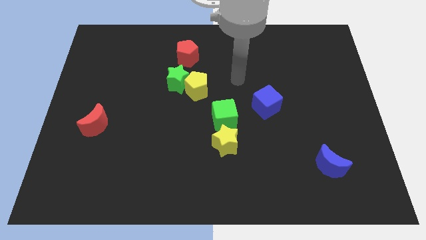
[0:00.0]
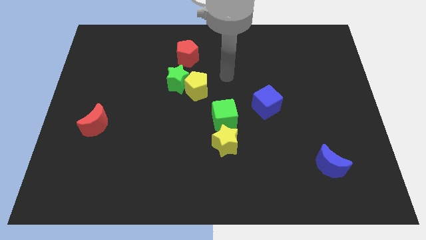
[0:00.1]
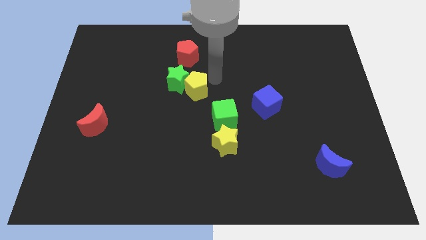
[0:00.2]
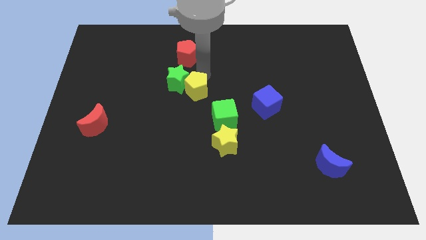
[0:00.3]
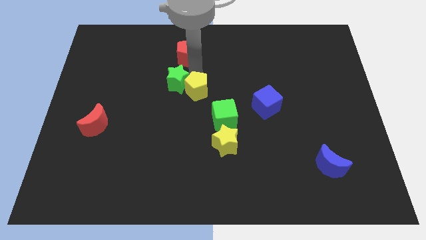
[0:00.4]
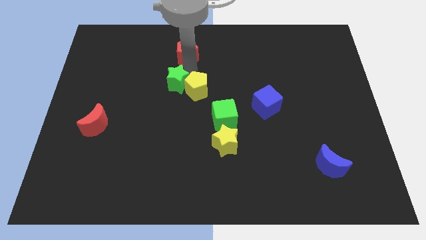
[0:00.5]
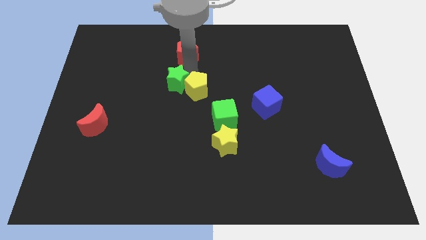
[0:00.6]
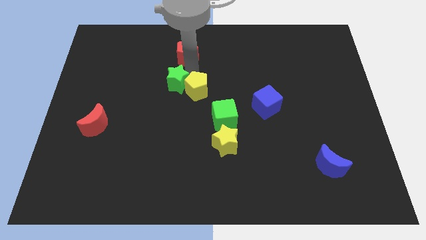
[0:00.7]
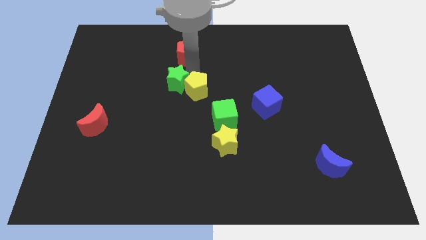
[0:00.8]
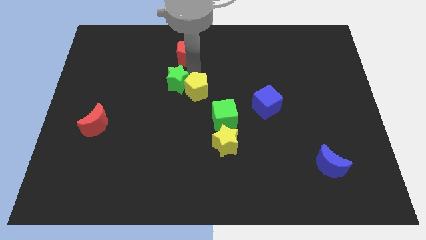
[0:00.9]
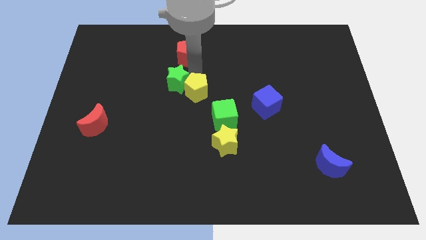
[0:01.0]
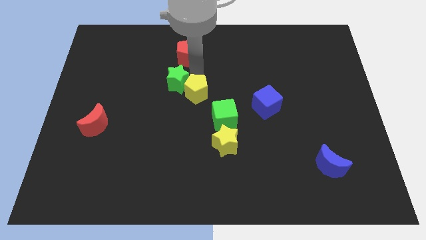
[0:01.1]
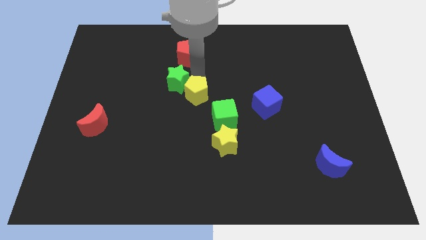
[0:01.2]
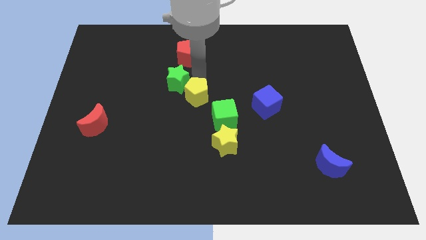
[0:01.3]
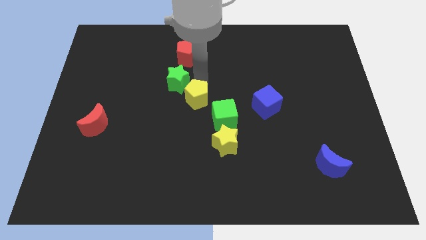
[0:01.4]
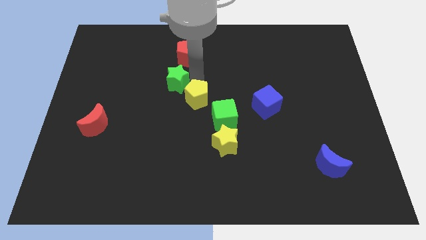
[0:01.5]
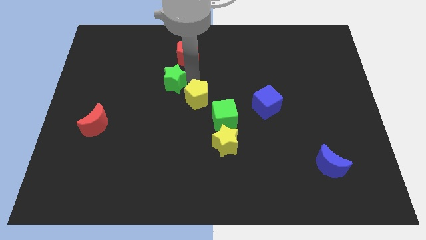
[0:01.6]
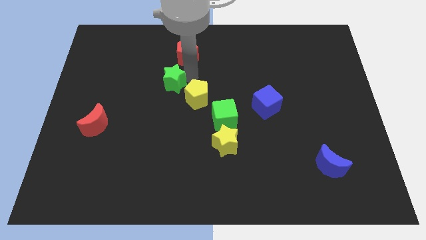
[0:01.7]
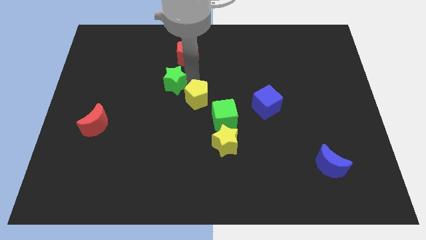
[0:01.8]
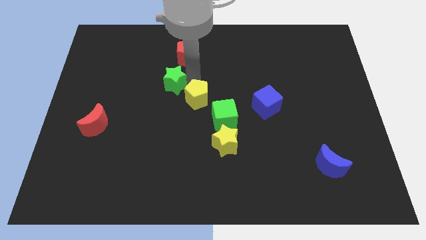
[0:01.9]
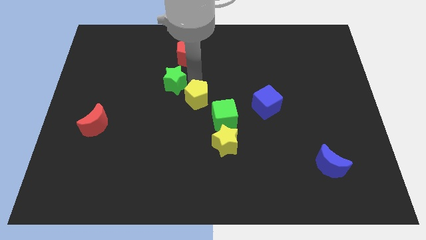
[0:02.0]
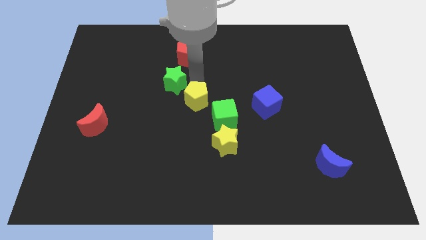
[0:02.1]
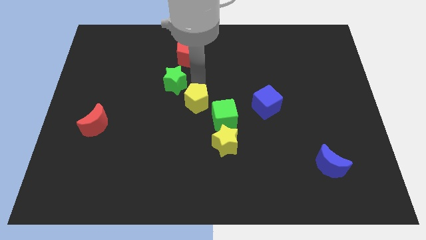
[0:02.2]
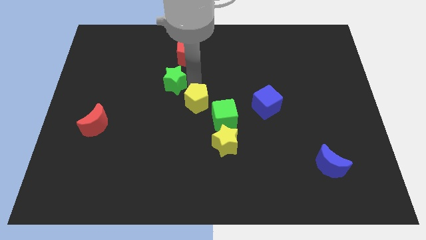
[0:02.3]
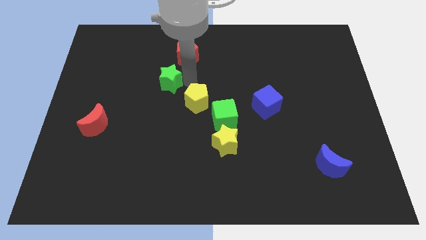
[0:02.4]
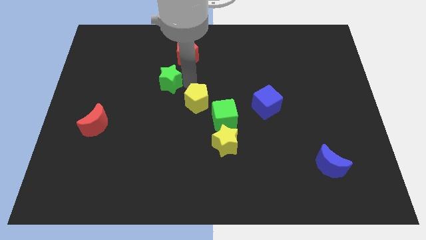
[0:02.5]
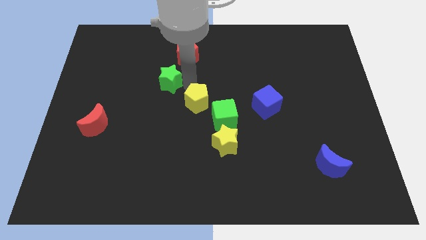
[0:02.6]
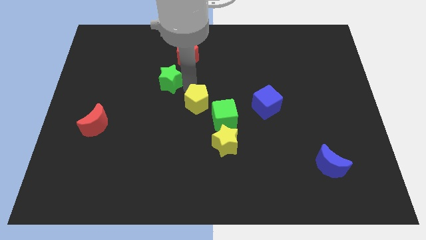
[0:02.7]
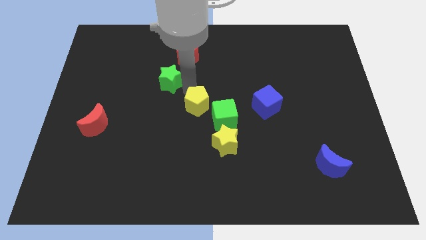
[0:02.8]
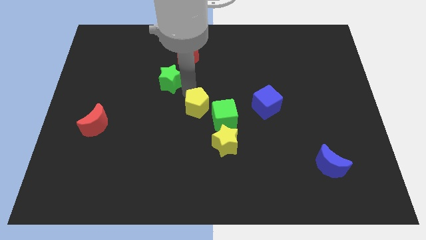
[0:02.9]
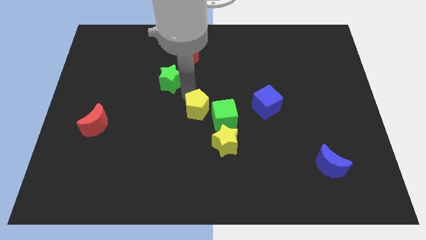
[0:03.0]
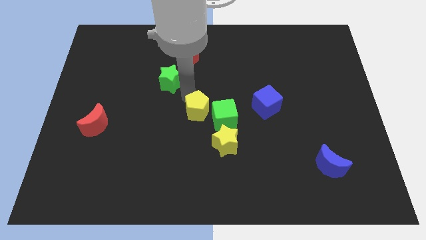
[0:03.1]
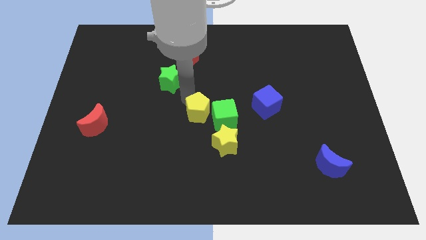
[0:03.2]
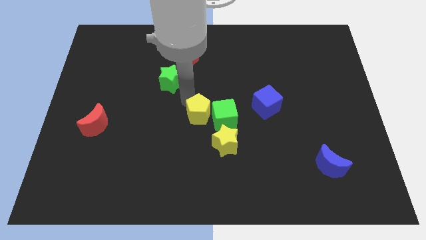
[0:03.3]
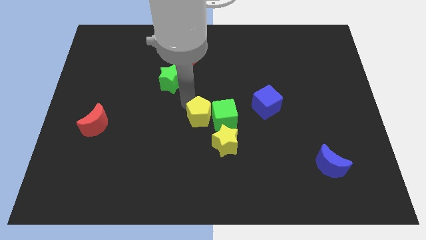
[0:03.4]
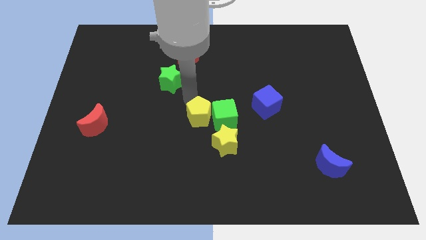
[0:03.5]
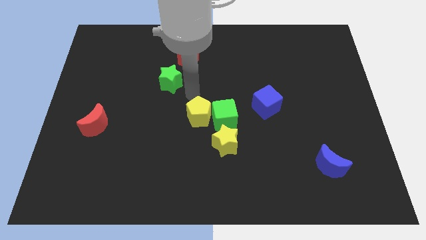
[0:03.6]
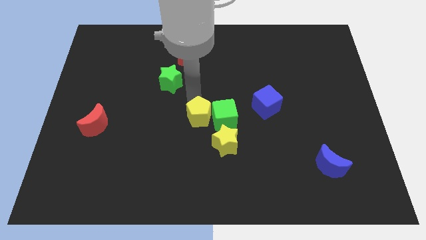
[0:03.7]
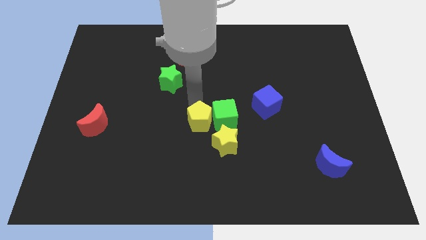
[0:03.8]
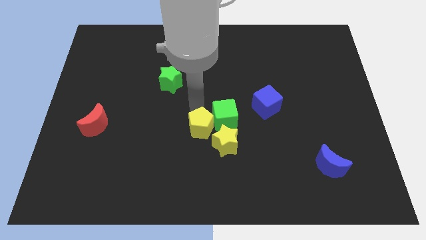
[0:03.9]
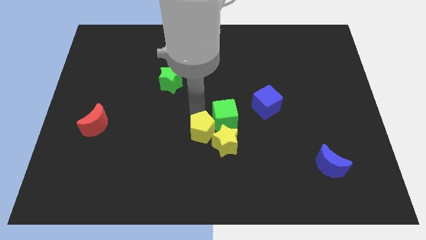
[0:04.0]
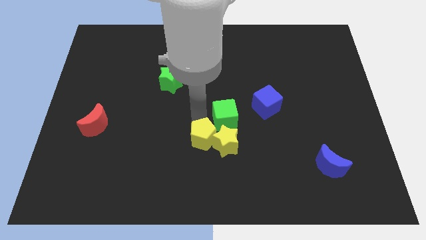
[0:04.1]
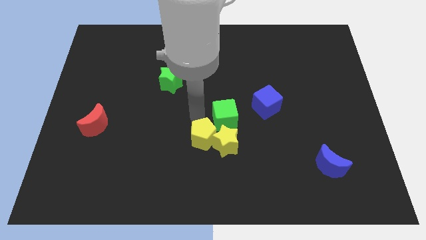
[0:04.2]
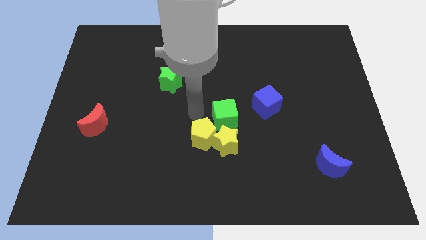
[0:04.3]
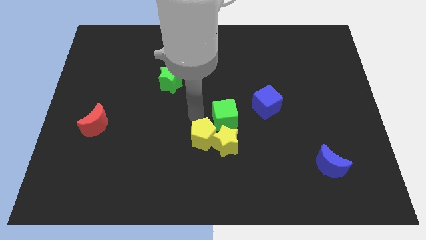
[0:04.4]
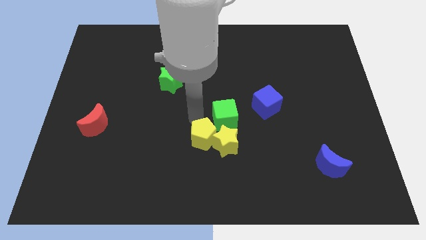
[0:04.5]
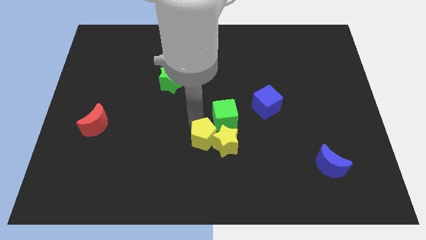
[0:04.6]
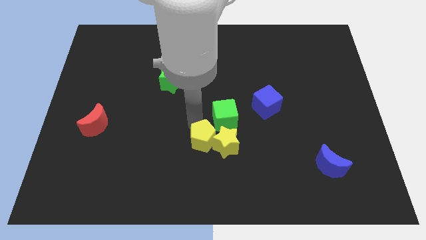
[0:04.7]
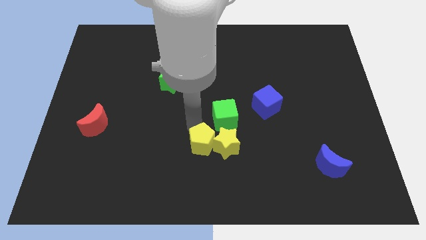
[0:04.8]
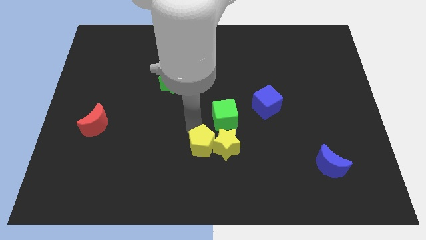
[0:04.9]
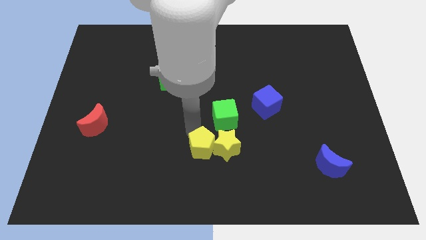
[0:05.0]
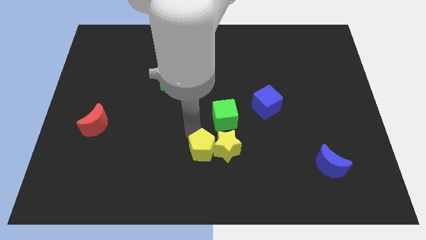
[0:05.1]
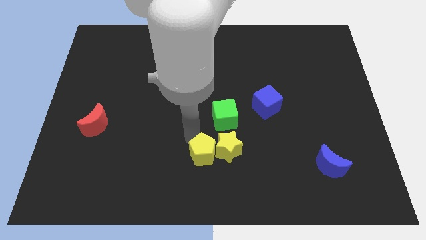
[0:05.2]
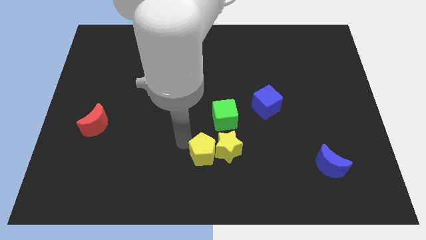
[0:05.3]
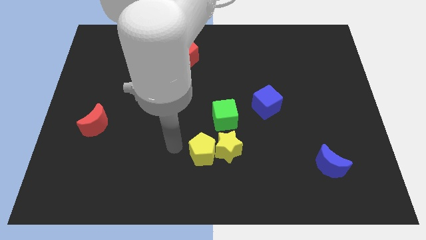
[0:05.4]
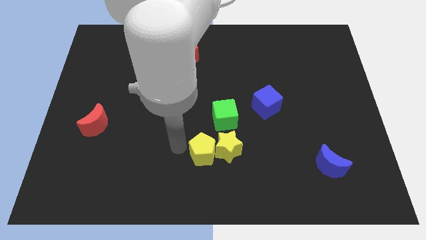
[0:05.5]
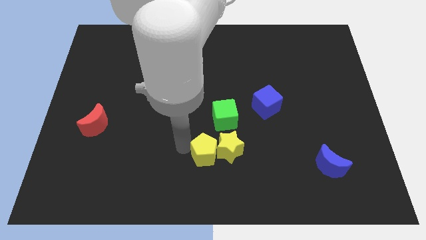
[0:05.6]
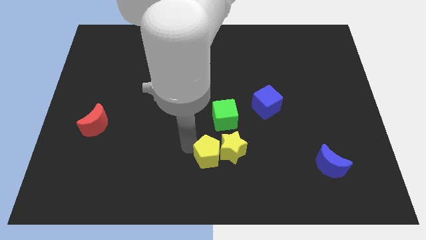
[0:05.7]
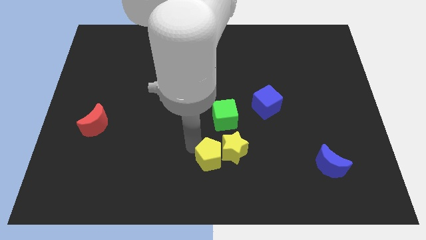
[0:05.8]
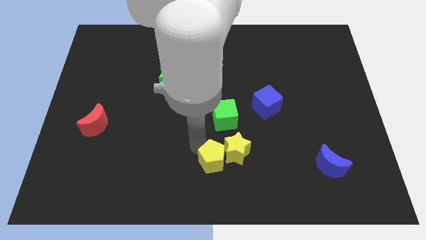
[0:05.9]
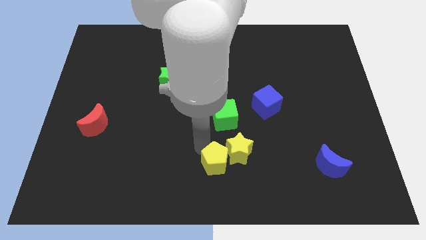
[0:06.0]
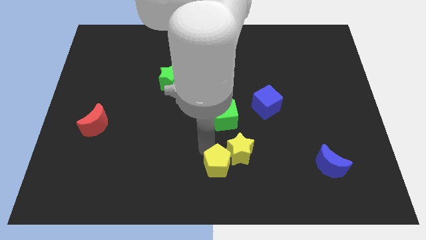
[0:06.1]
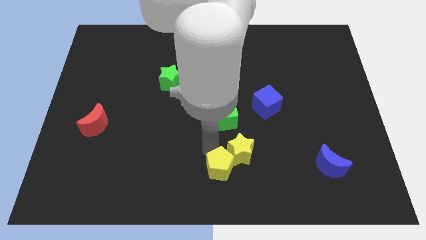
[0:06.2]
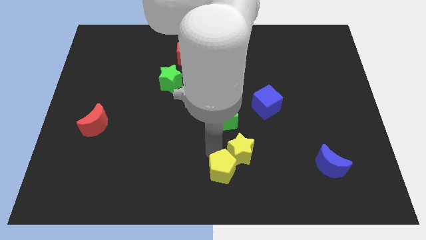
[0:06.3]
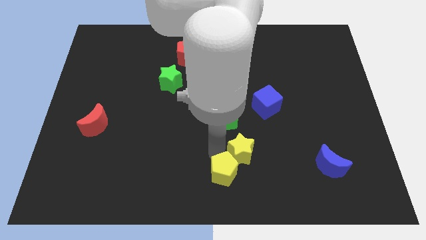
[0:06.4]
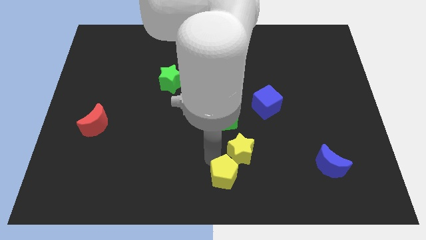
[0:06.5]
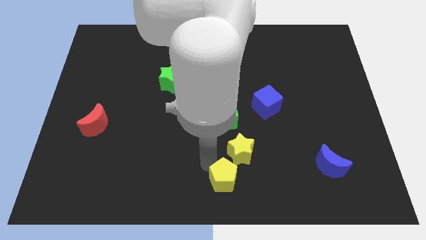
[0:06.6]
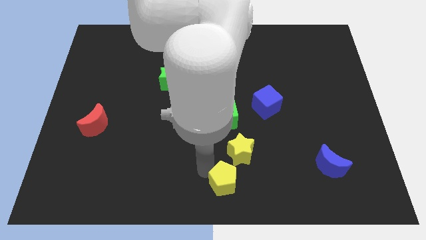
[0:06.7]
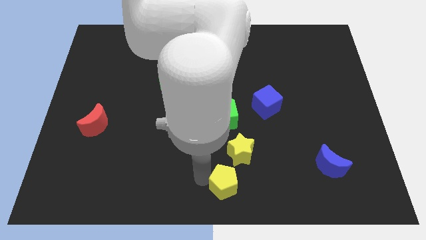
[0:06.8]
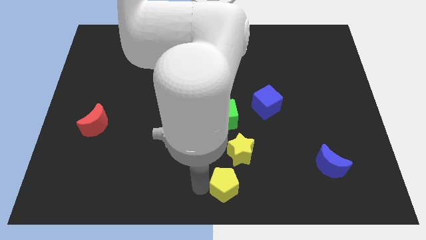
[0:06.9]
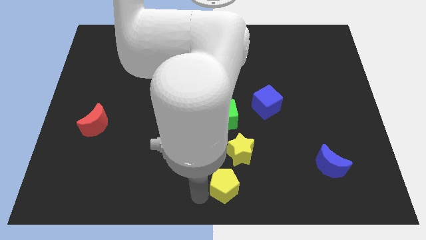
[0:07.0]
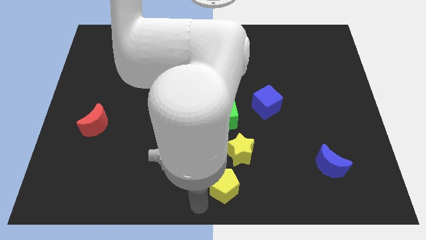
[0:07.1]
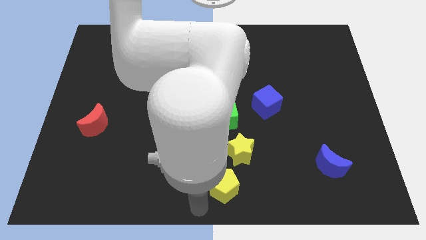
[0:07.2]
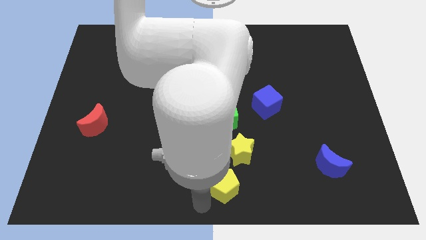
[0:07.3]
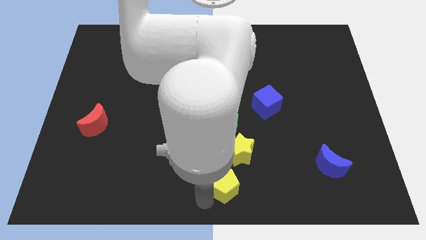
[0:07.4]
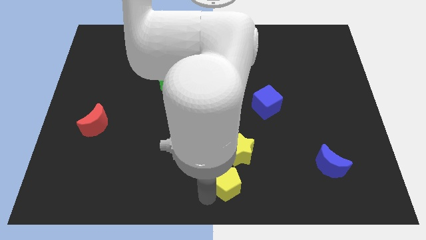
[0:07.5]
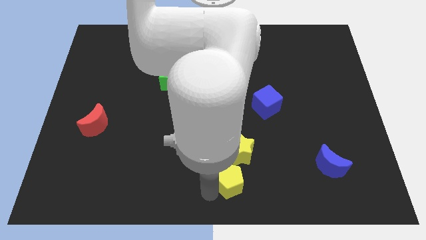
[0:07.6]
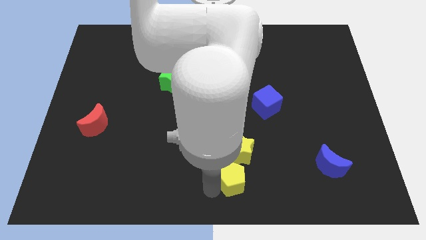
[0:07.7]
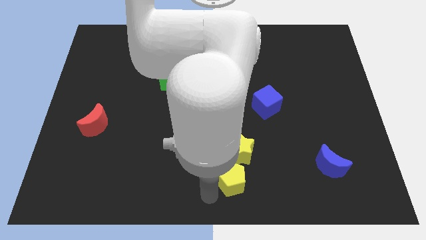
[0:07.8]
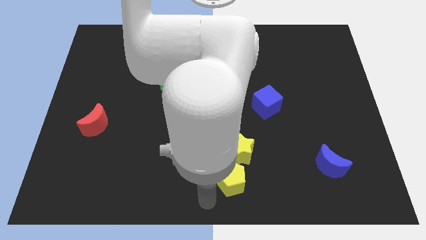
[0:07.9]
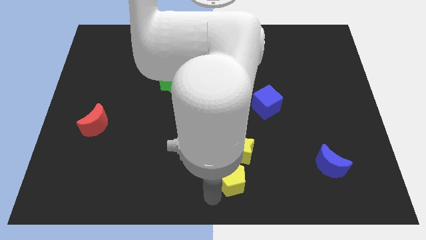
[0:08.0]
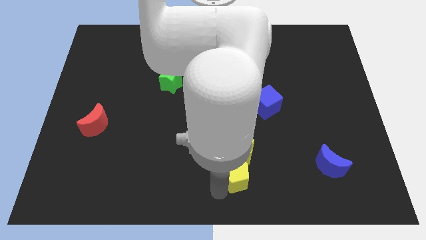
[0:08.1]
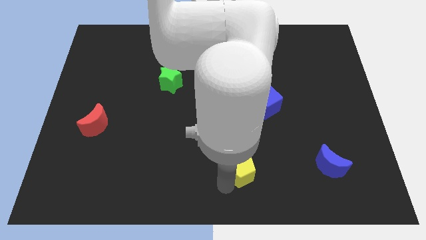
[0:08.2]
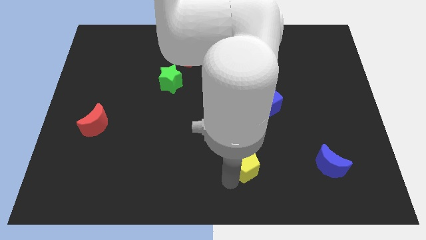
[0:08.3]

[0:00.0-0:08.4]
push the yellow pentagon downwards and to the right
